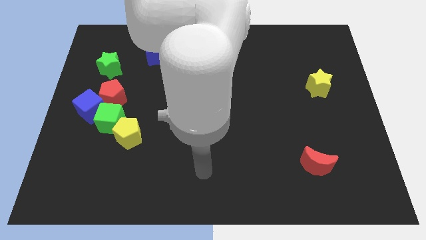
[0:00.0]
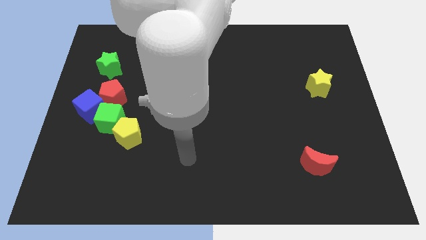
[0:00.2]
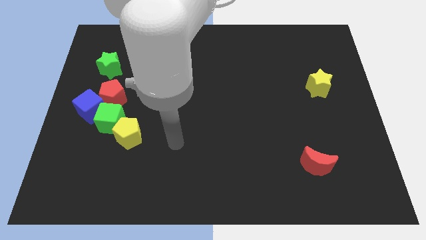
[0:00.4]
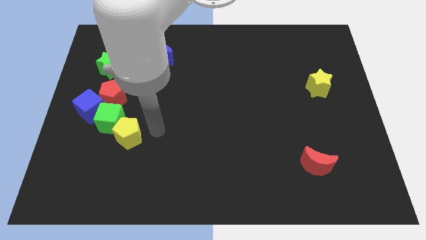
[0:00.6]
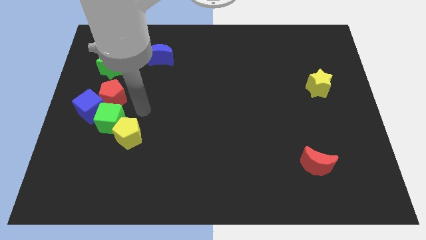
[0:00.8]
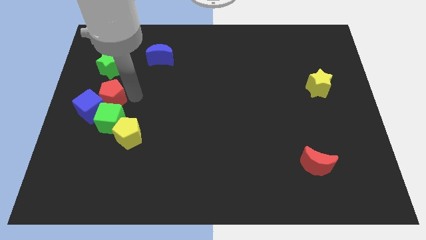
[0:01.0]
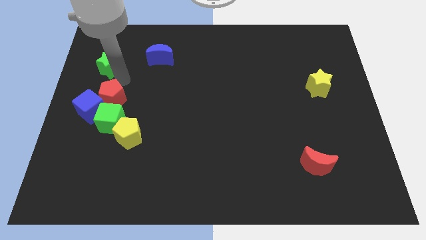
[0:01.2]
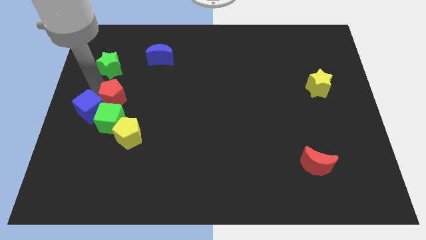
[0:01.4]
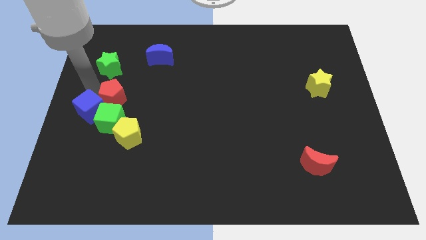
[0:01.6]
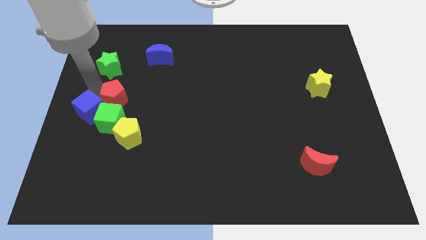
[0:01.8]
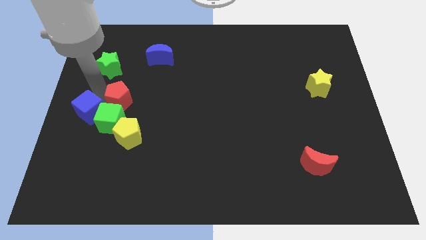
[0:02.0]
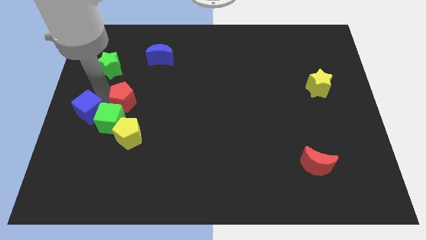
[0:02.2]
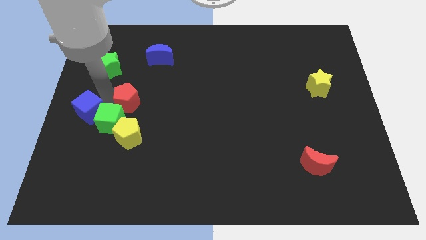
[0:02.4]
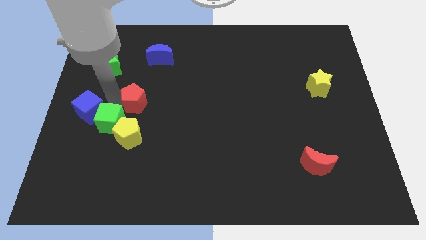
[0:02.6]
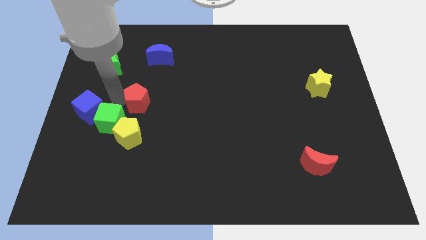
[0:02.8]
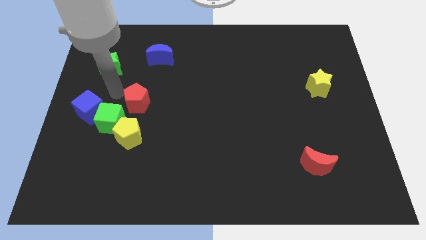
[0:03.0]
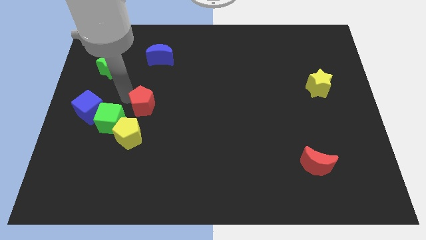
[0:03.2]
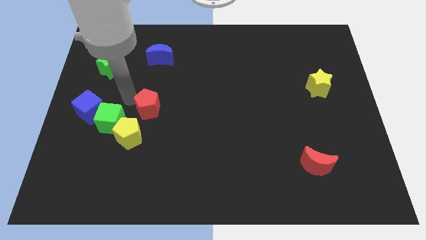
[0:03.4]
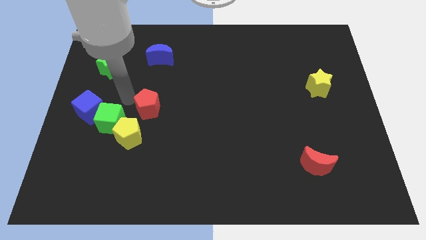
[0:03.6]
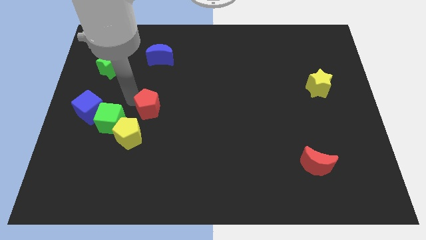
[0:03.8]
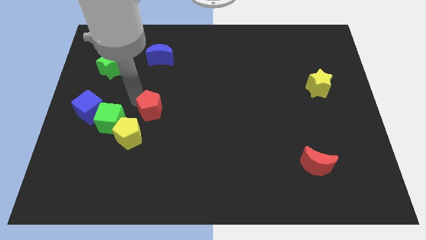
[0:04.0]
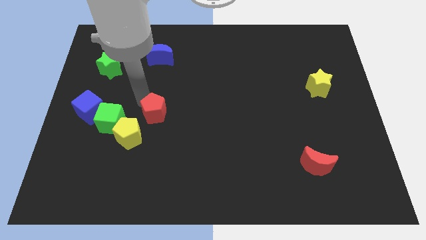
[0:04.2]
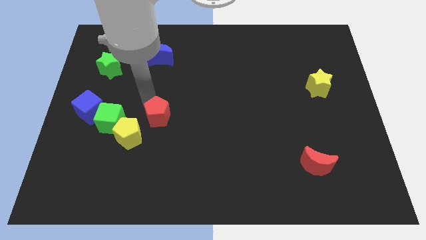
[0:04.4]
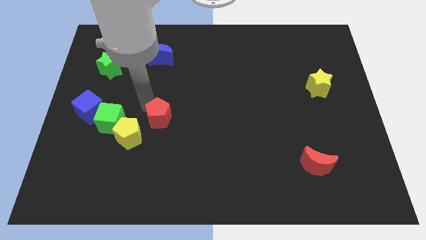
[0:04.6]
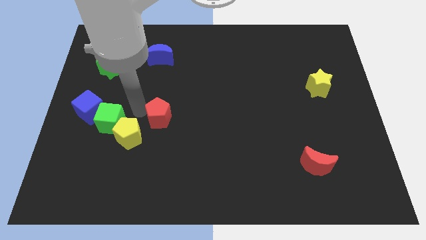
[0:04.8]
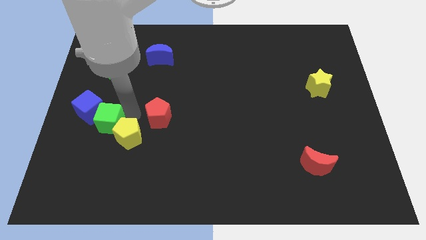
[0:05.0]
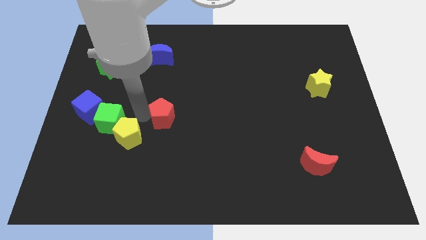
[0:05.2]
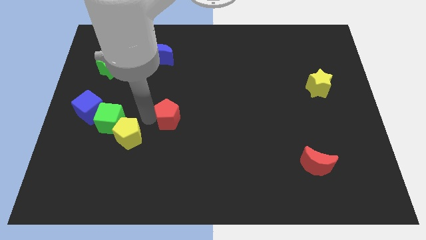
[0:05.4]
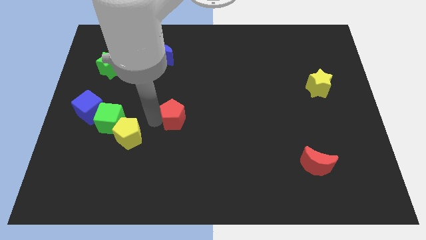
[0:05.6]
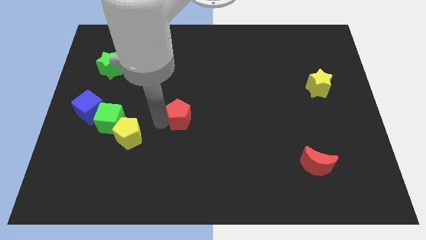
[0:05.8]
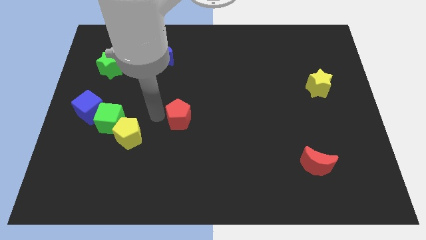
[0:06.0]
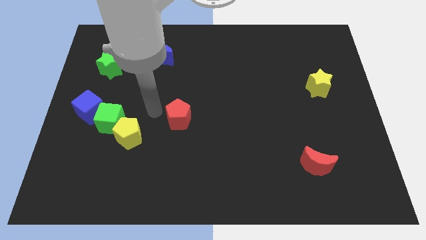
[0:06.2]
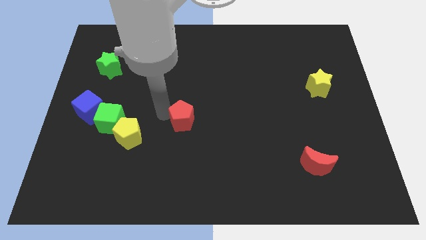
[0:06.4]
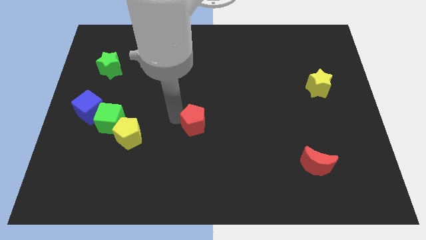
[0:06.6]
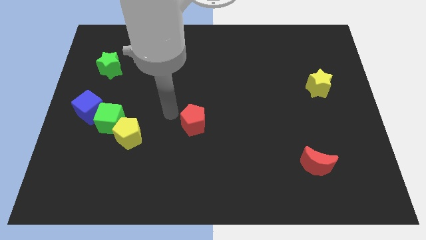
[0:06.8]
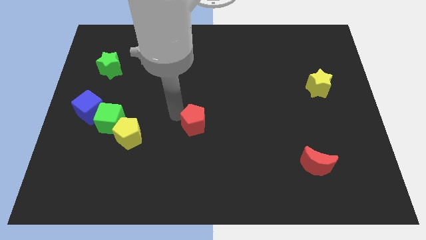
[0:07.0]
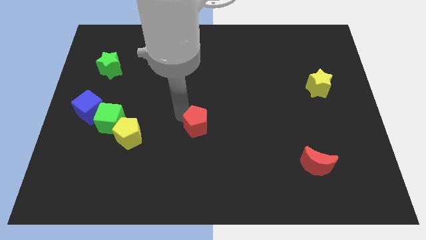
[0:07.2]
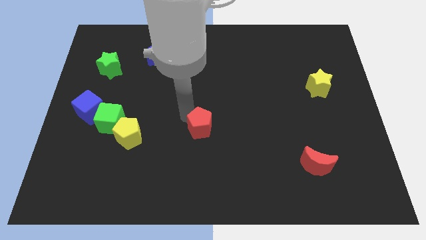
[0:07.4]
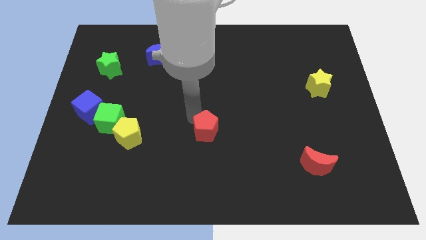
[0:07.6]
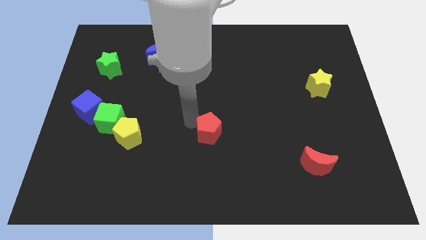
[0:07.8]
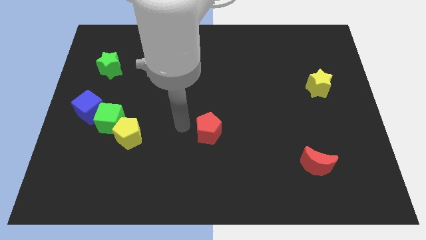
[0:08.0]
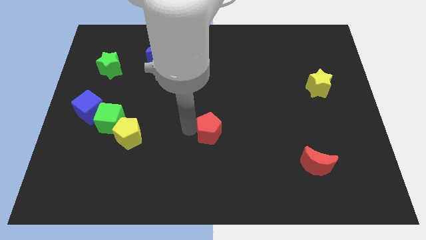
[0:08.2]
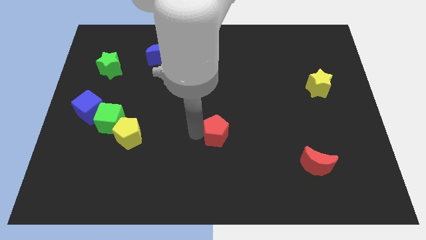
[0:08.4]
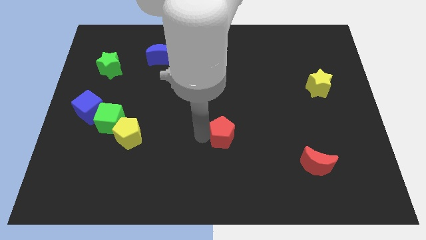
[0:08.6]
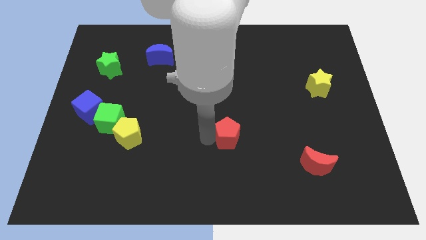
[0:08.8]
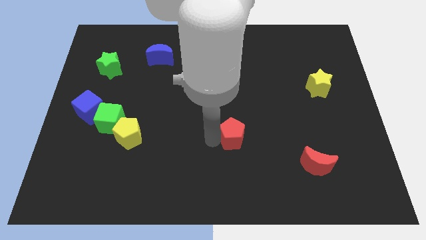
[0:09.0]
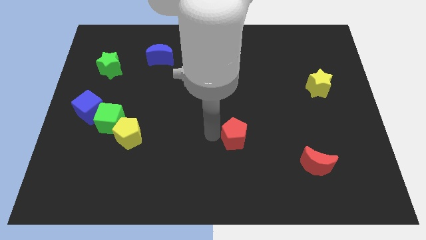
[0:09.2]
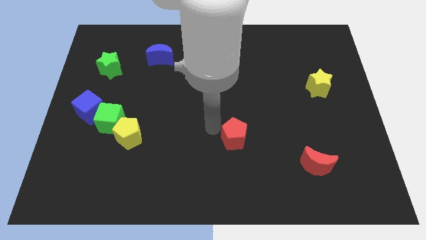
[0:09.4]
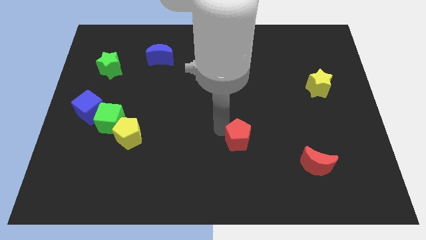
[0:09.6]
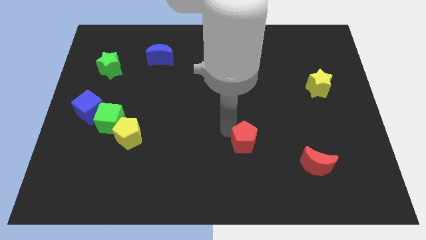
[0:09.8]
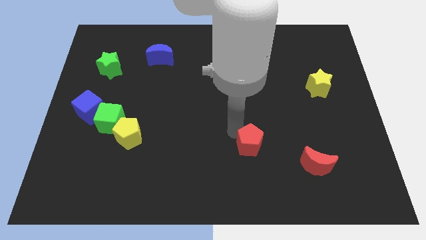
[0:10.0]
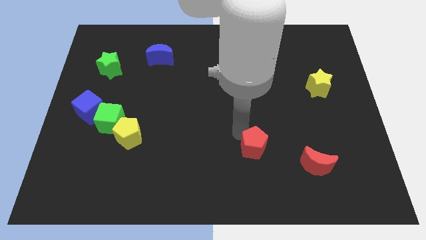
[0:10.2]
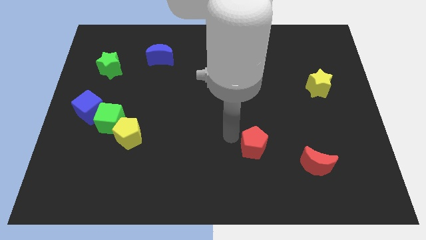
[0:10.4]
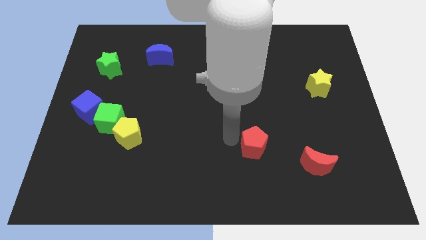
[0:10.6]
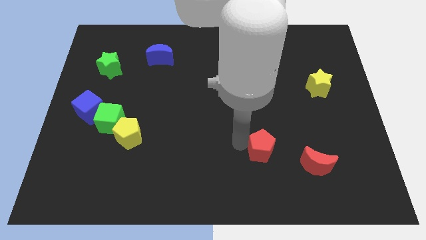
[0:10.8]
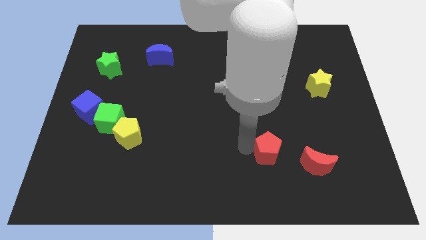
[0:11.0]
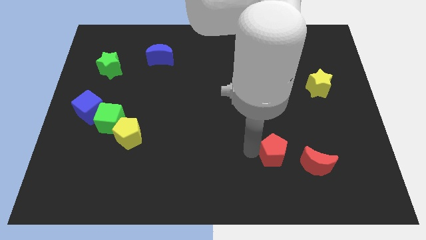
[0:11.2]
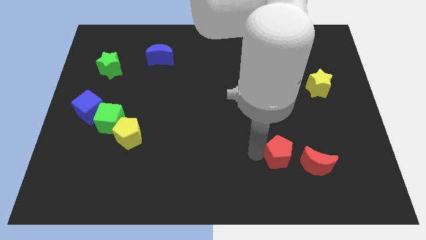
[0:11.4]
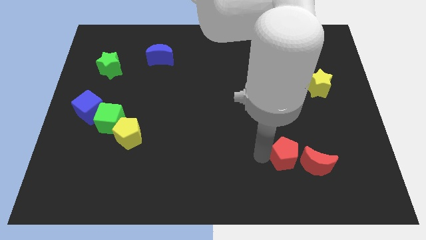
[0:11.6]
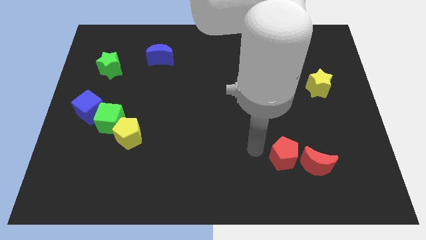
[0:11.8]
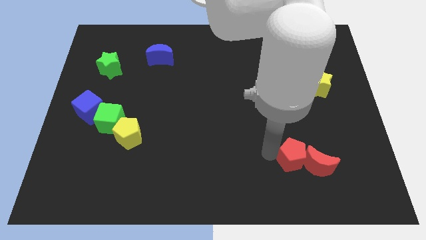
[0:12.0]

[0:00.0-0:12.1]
slide the red pentagon to the red moon

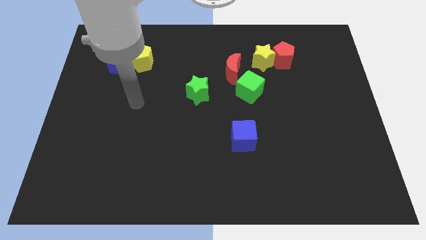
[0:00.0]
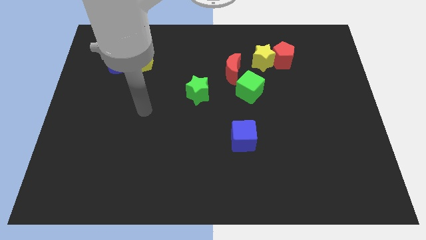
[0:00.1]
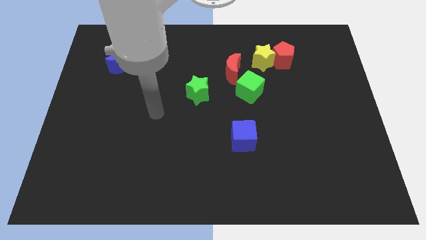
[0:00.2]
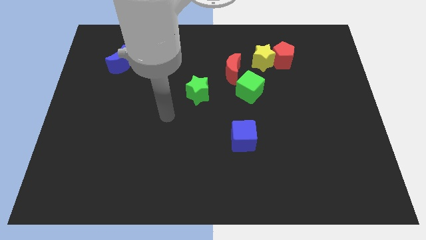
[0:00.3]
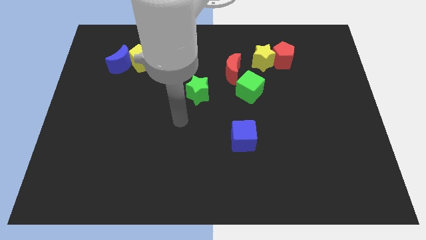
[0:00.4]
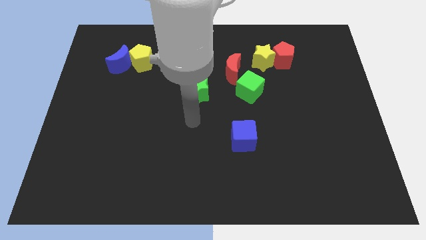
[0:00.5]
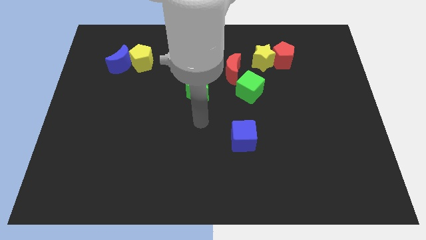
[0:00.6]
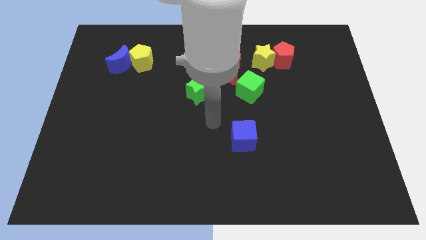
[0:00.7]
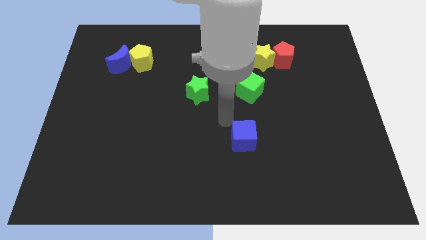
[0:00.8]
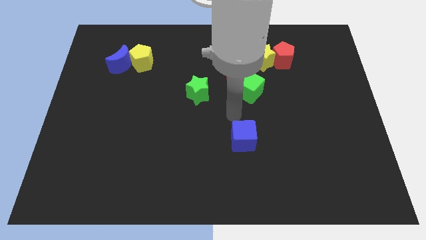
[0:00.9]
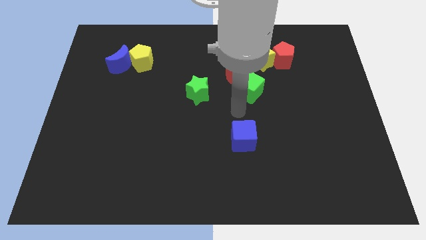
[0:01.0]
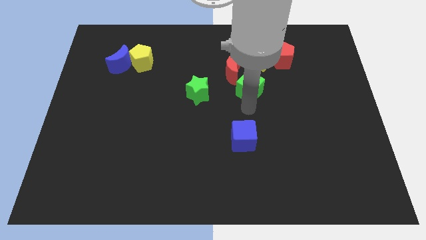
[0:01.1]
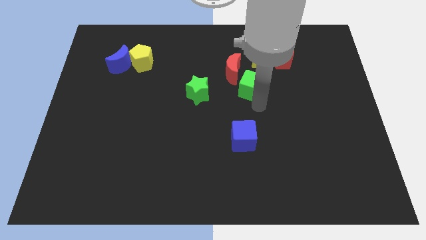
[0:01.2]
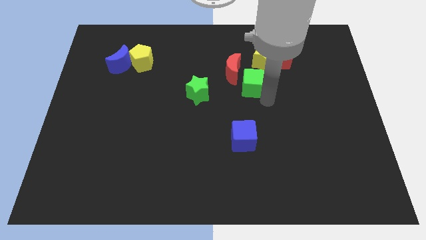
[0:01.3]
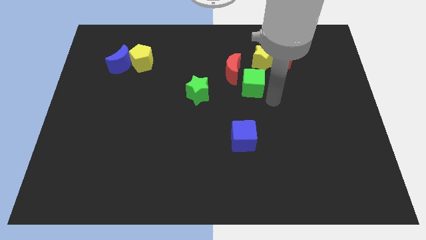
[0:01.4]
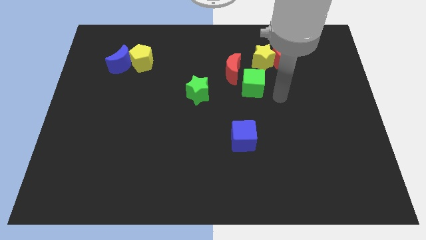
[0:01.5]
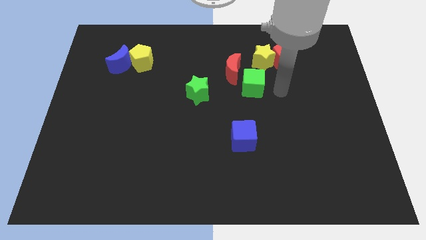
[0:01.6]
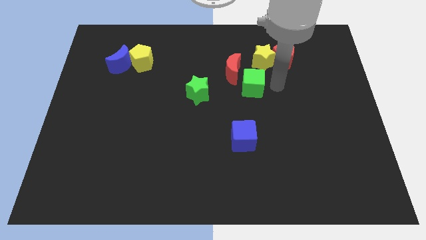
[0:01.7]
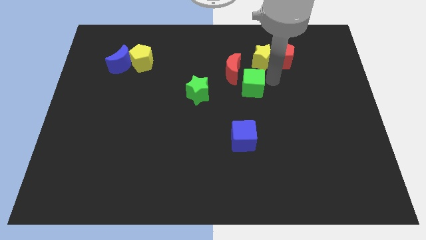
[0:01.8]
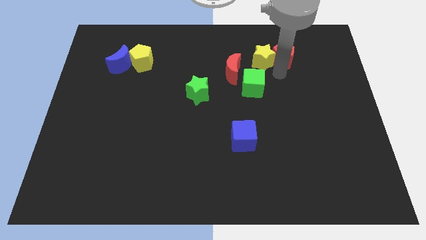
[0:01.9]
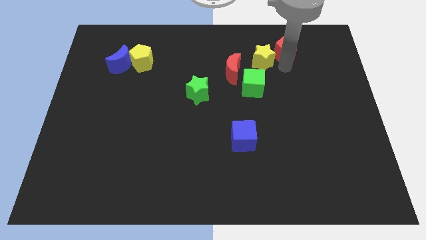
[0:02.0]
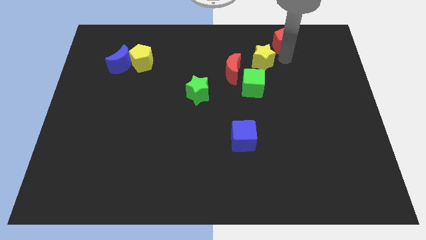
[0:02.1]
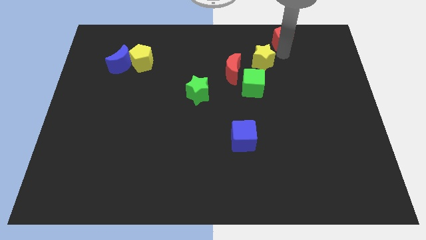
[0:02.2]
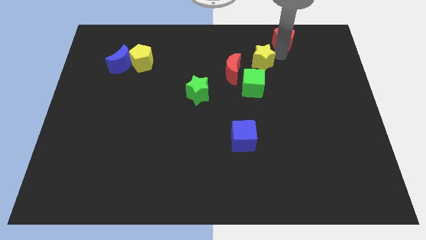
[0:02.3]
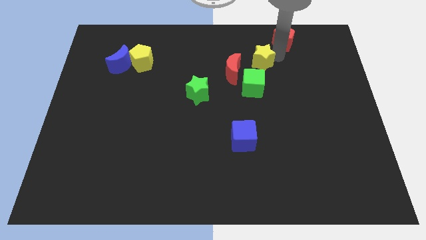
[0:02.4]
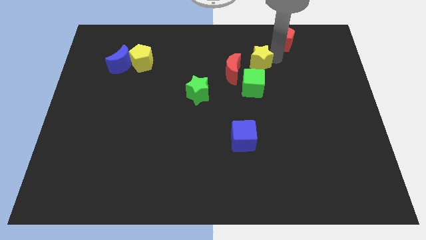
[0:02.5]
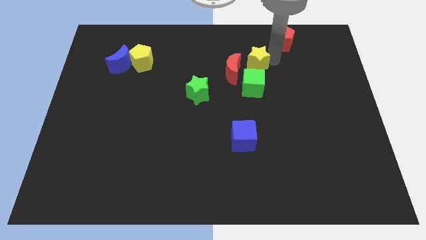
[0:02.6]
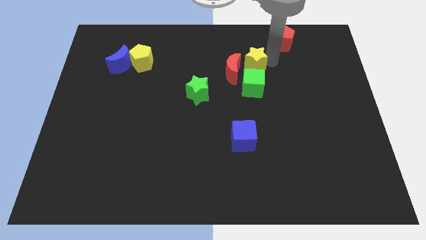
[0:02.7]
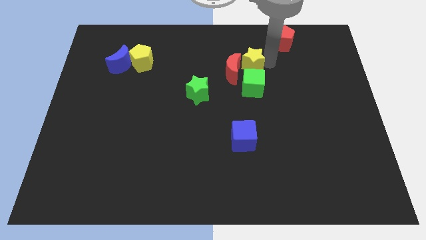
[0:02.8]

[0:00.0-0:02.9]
move the yellow star next to the red moon
